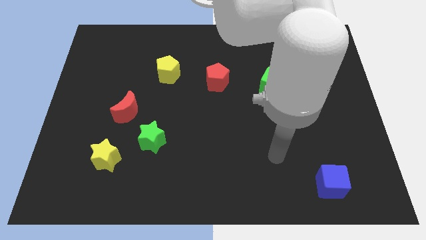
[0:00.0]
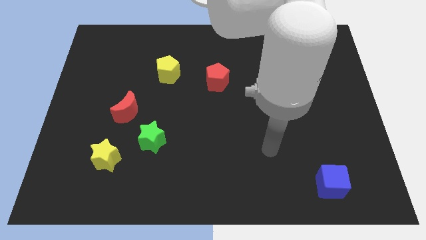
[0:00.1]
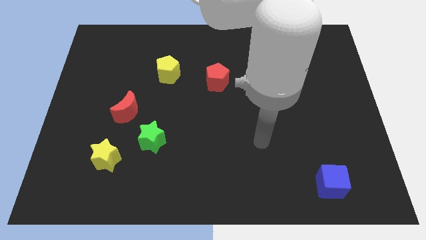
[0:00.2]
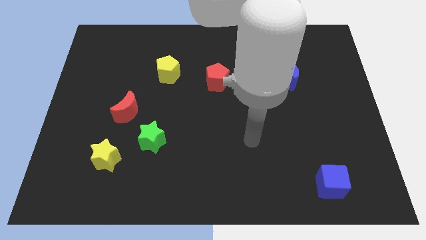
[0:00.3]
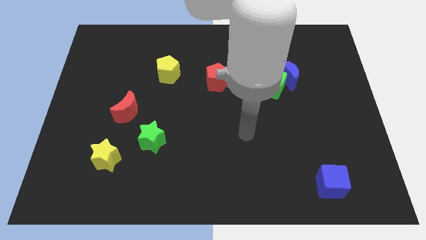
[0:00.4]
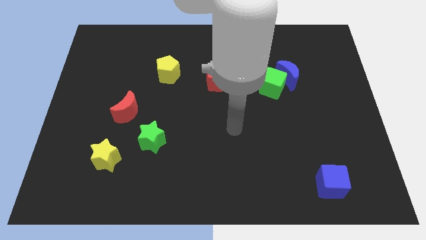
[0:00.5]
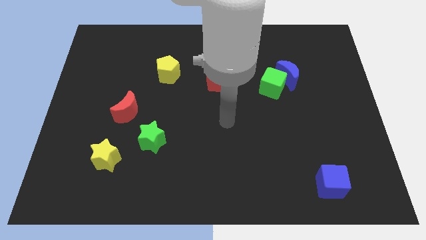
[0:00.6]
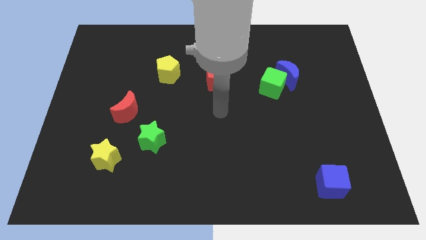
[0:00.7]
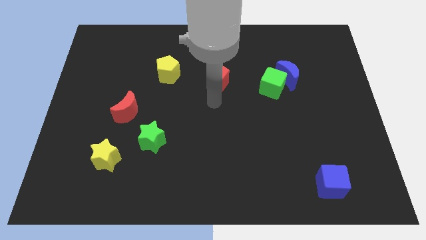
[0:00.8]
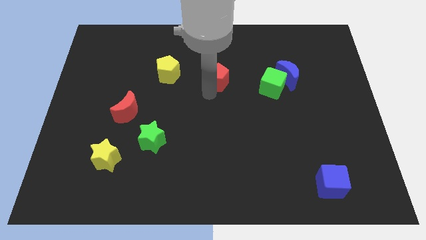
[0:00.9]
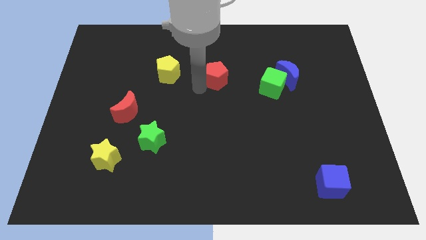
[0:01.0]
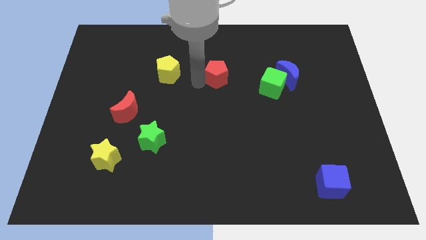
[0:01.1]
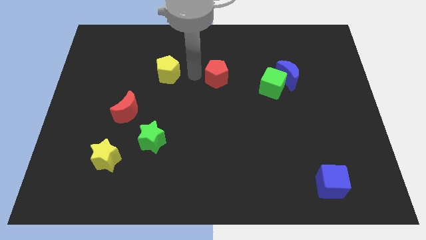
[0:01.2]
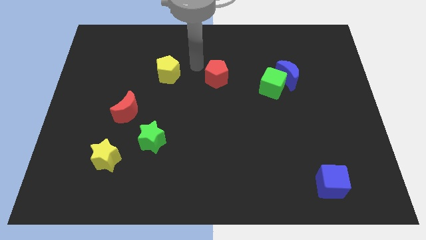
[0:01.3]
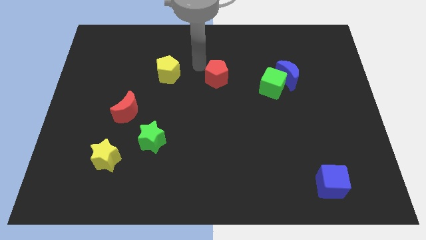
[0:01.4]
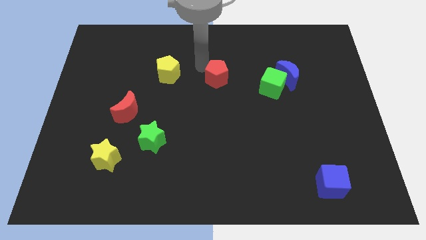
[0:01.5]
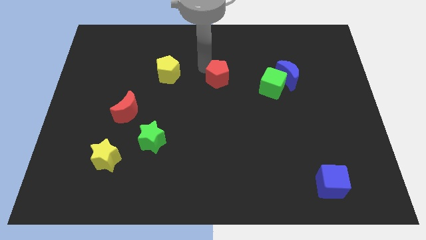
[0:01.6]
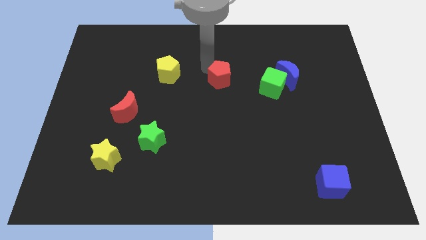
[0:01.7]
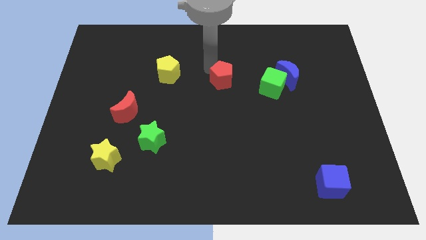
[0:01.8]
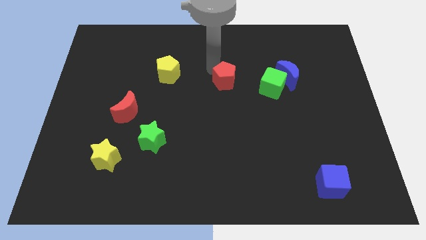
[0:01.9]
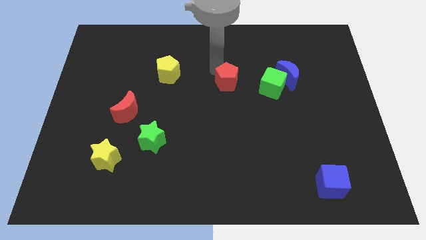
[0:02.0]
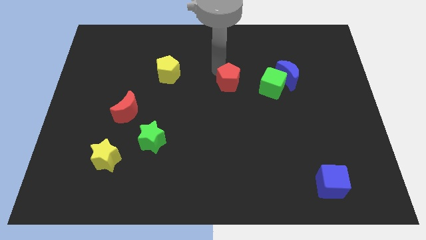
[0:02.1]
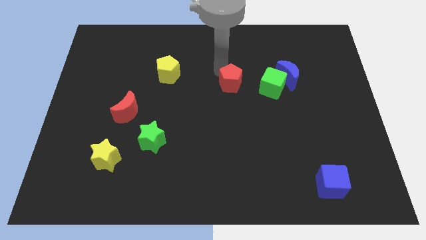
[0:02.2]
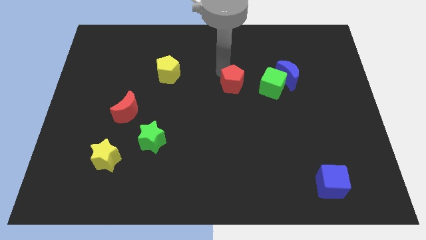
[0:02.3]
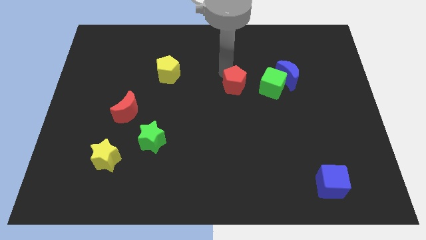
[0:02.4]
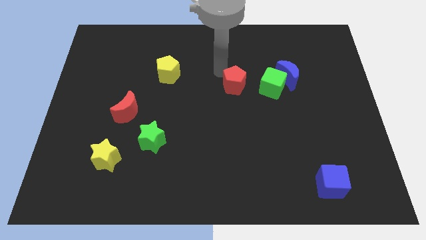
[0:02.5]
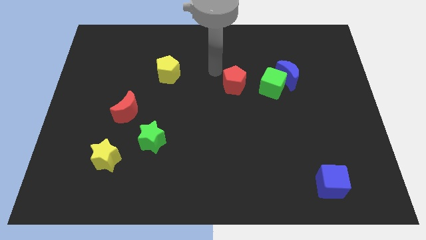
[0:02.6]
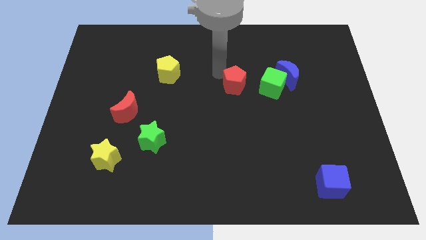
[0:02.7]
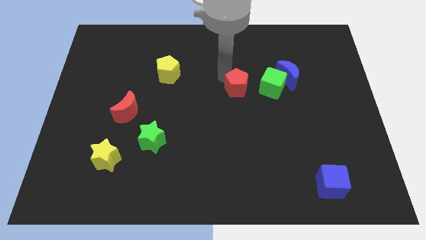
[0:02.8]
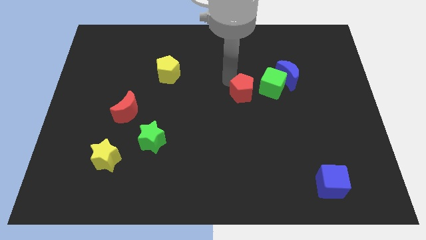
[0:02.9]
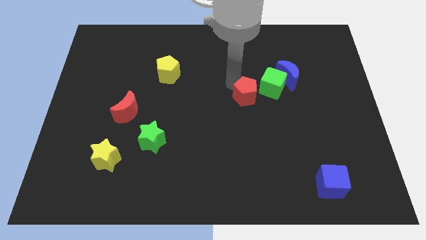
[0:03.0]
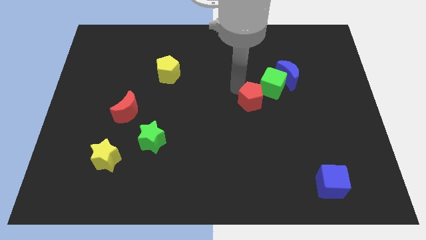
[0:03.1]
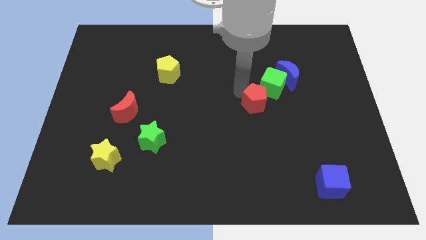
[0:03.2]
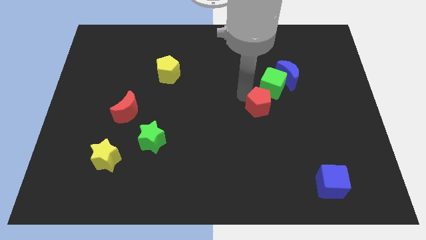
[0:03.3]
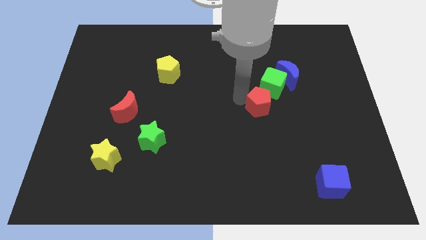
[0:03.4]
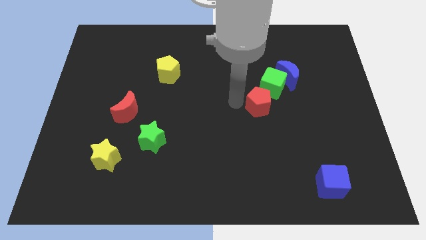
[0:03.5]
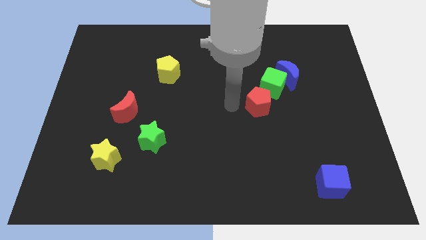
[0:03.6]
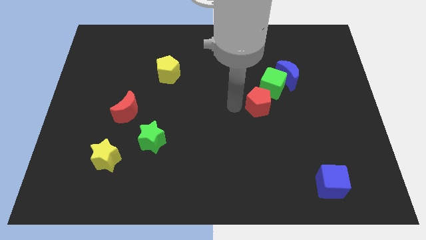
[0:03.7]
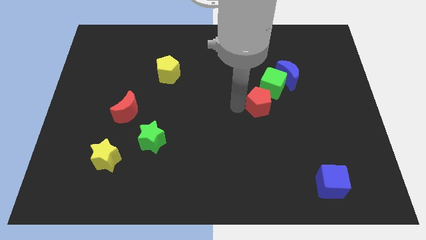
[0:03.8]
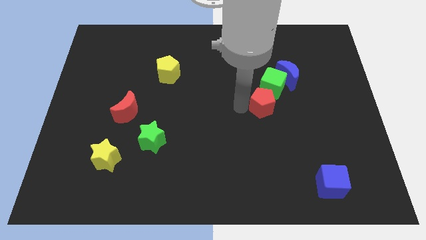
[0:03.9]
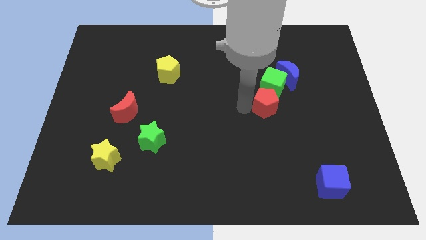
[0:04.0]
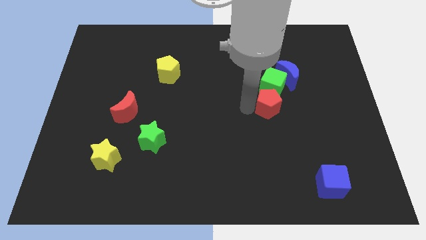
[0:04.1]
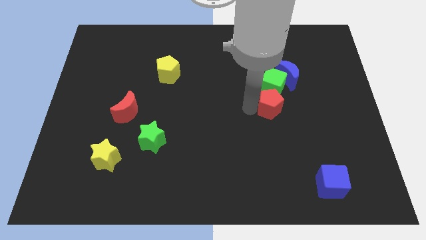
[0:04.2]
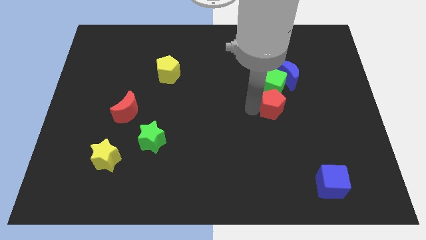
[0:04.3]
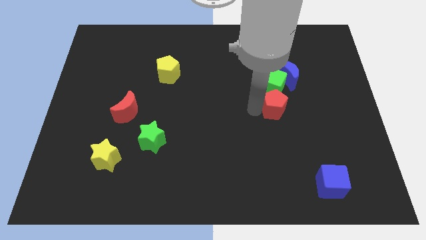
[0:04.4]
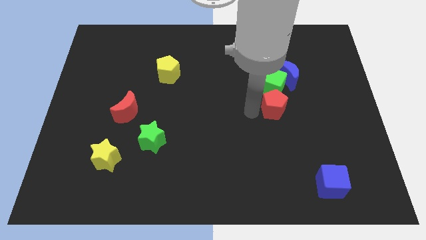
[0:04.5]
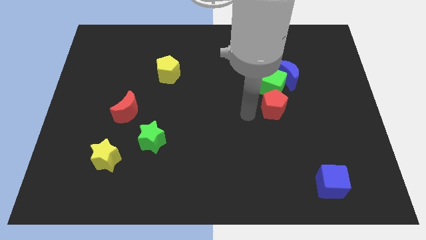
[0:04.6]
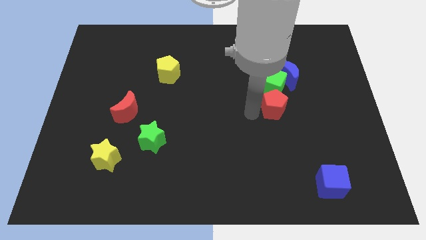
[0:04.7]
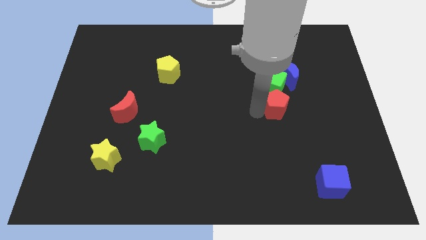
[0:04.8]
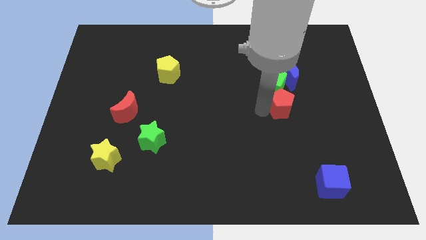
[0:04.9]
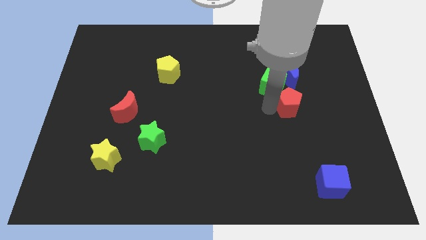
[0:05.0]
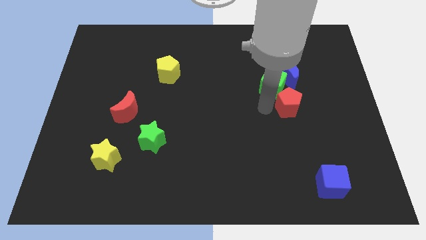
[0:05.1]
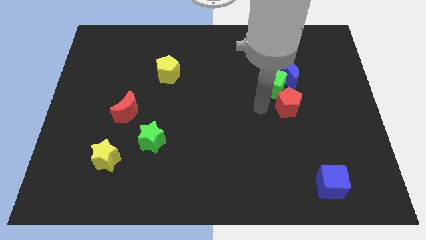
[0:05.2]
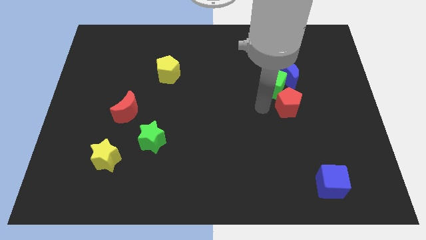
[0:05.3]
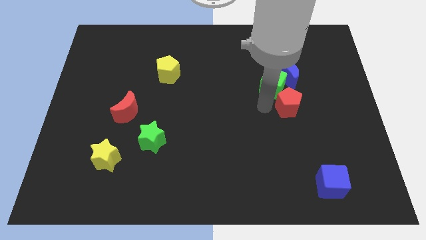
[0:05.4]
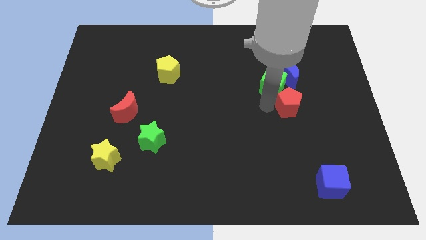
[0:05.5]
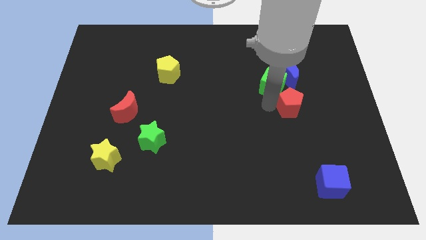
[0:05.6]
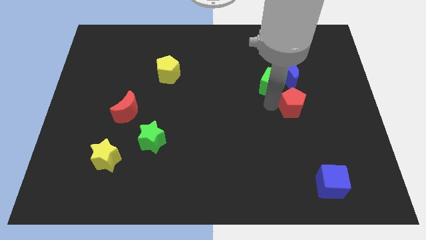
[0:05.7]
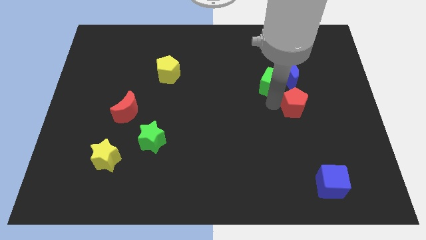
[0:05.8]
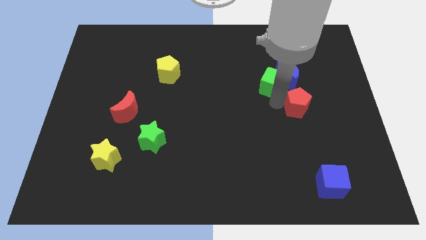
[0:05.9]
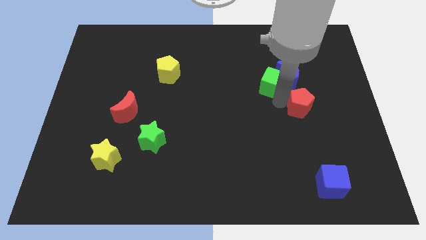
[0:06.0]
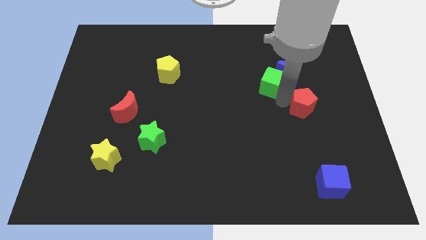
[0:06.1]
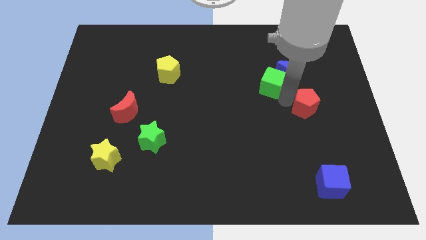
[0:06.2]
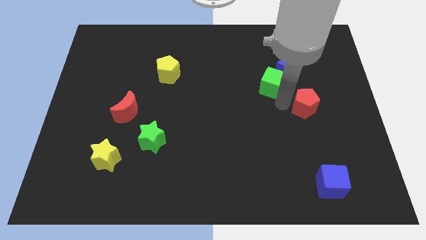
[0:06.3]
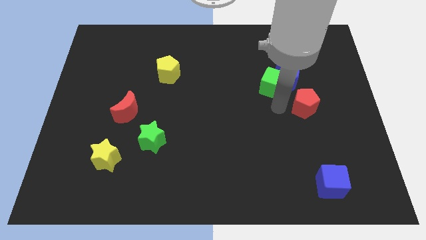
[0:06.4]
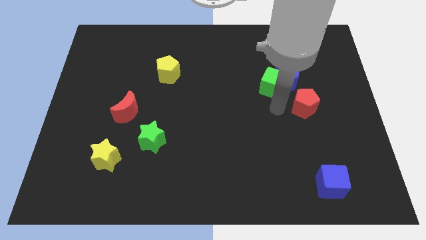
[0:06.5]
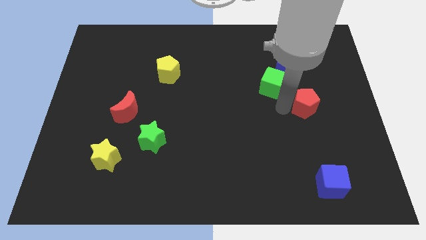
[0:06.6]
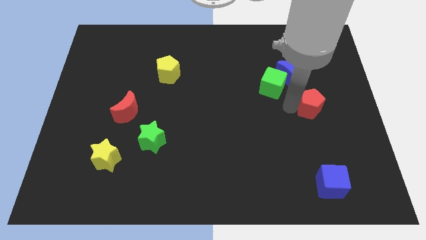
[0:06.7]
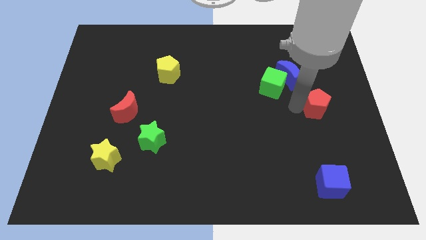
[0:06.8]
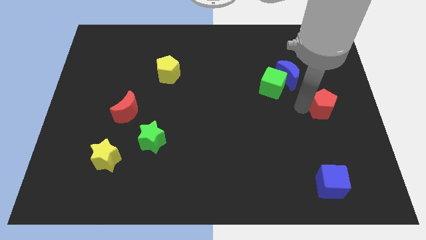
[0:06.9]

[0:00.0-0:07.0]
push the red pentagon to the right side
